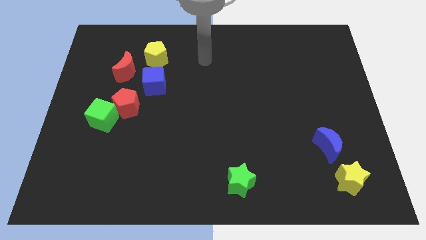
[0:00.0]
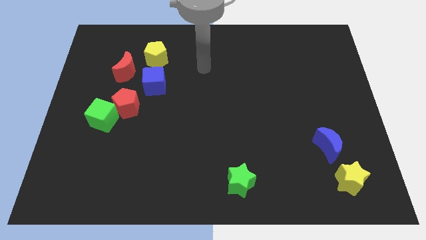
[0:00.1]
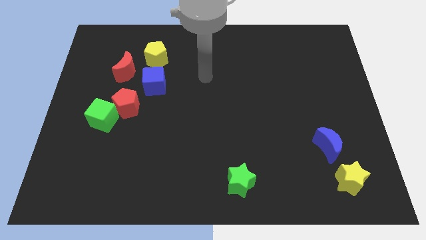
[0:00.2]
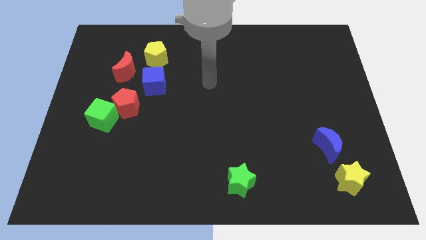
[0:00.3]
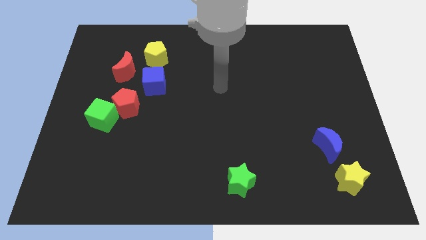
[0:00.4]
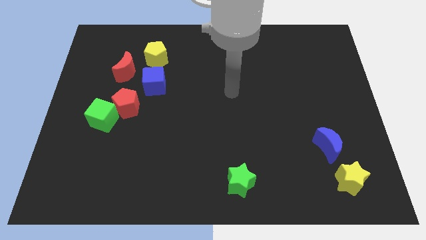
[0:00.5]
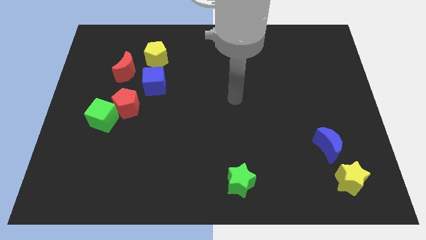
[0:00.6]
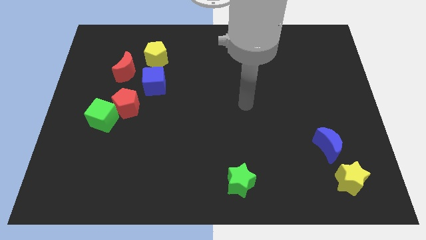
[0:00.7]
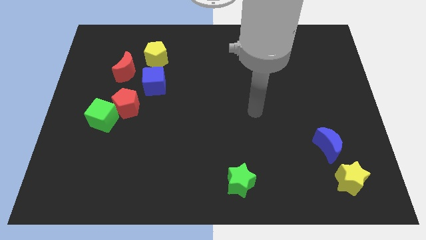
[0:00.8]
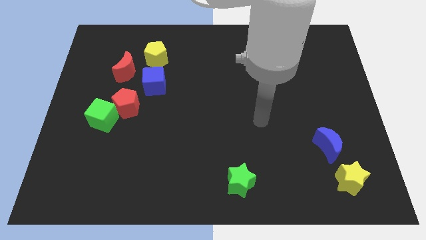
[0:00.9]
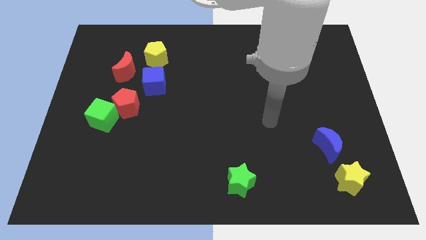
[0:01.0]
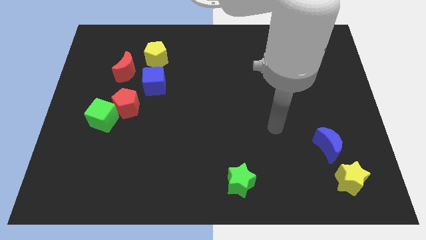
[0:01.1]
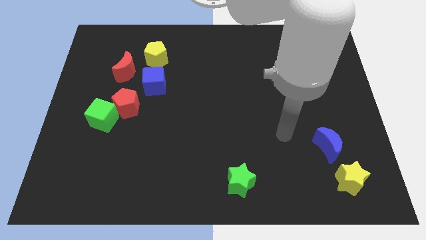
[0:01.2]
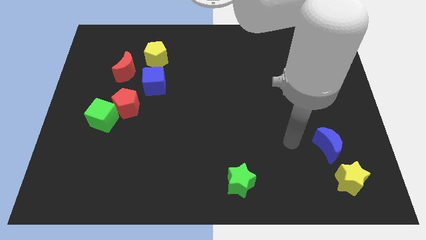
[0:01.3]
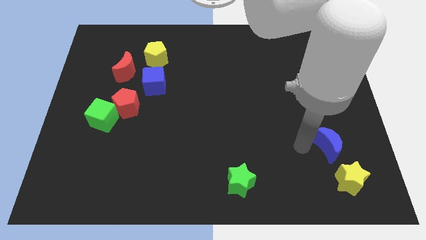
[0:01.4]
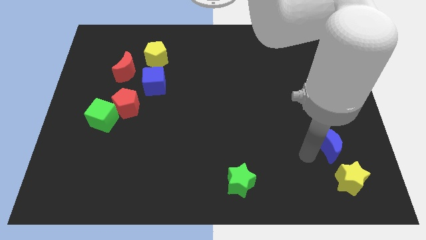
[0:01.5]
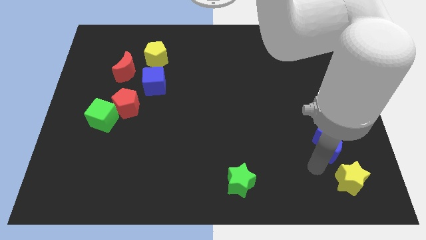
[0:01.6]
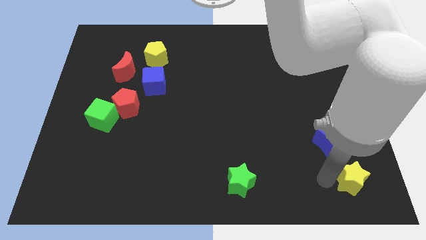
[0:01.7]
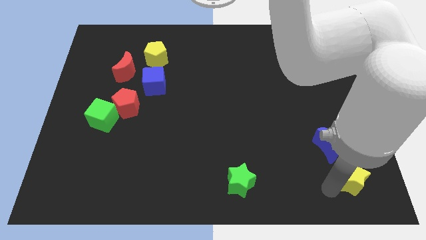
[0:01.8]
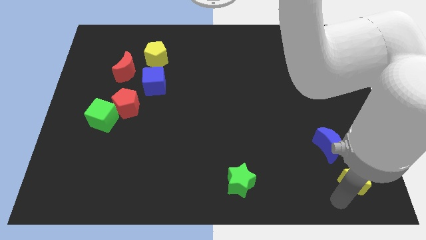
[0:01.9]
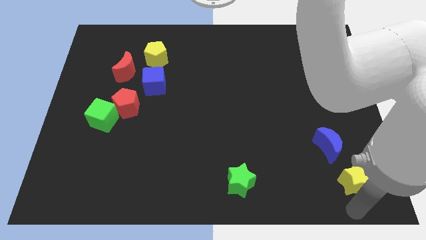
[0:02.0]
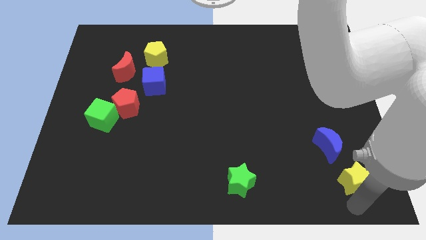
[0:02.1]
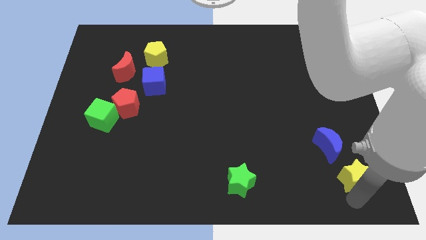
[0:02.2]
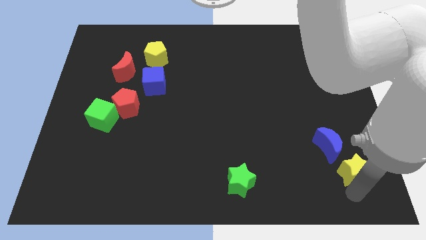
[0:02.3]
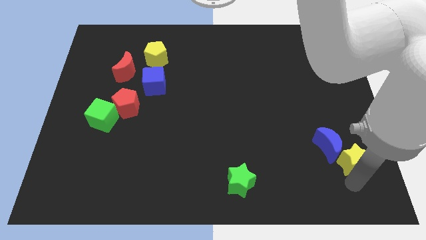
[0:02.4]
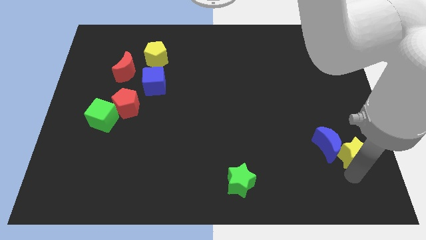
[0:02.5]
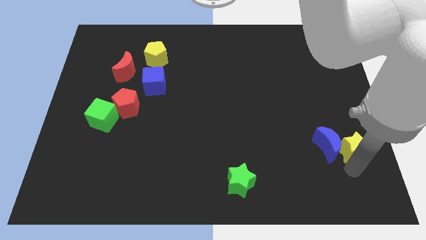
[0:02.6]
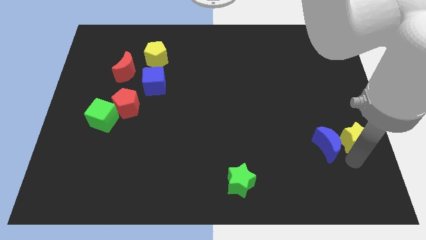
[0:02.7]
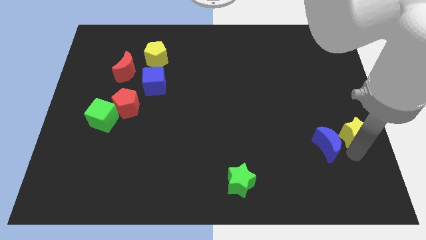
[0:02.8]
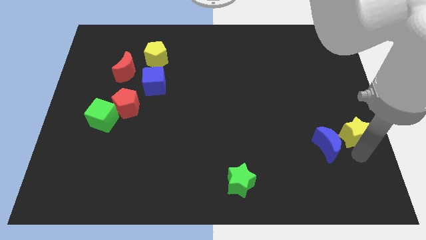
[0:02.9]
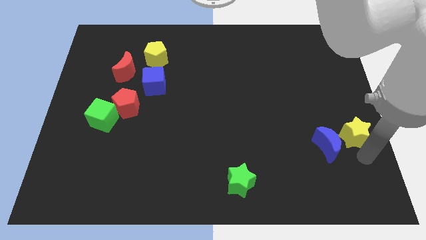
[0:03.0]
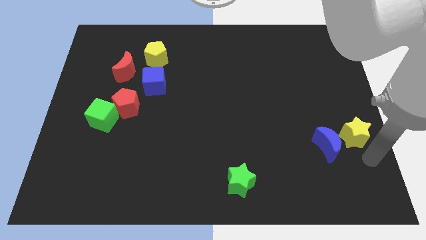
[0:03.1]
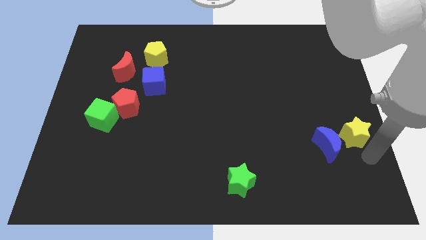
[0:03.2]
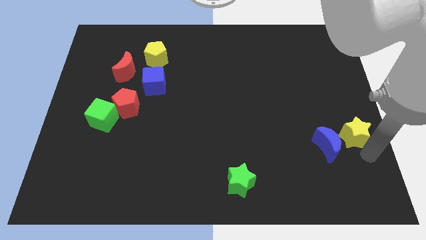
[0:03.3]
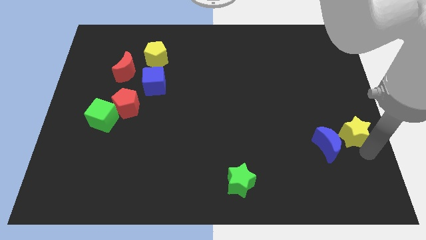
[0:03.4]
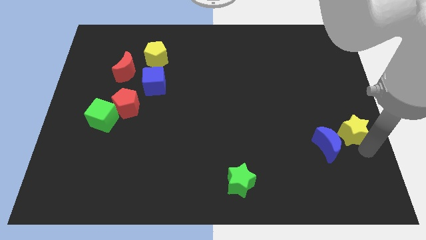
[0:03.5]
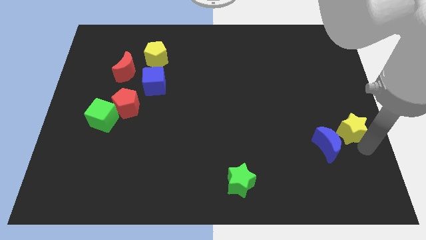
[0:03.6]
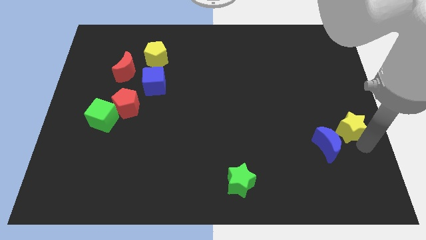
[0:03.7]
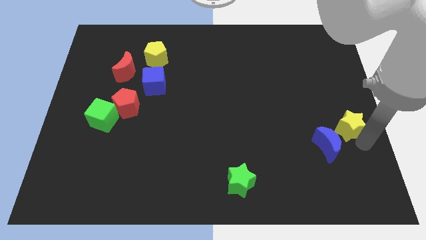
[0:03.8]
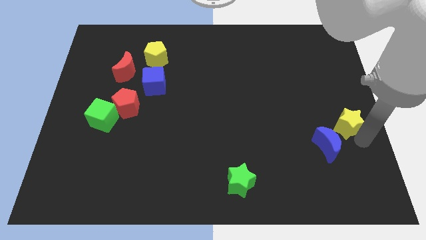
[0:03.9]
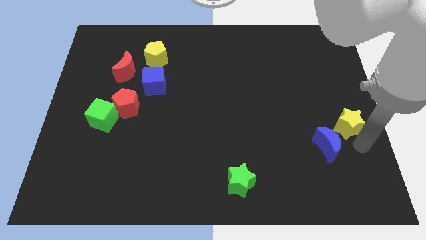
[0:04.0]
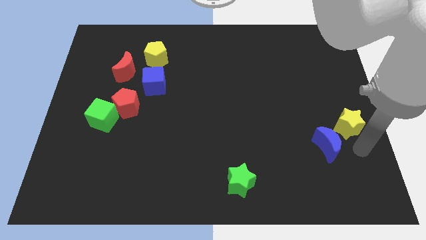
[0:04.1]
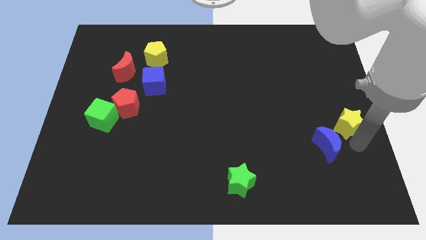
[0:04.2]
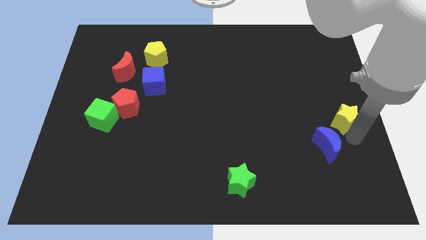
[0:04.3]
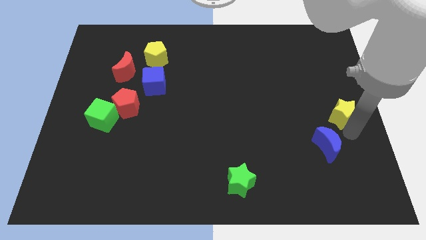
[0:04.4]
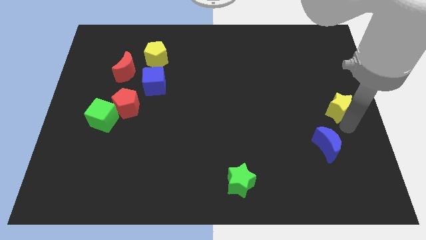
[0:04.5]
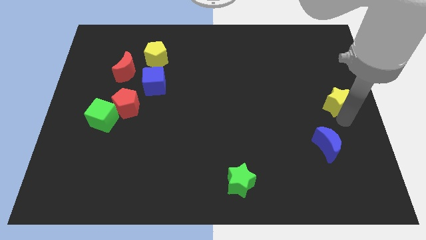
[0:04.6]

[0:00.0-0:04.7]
move the yellow star upwards

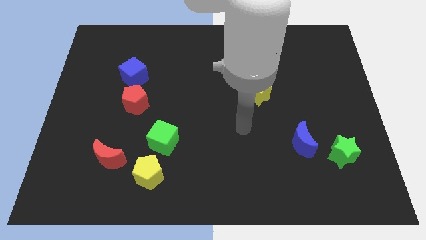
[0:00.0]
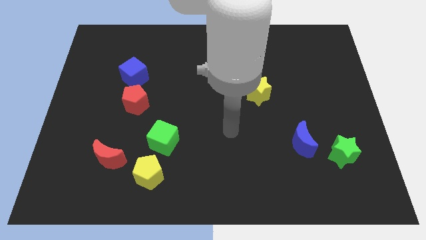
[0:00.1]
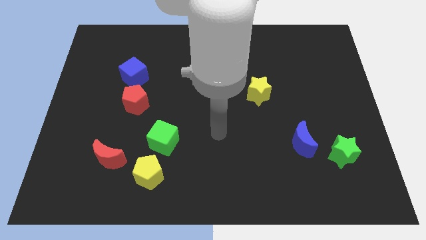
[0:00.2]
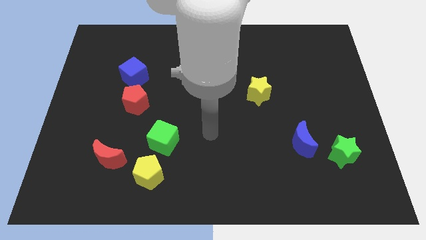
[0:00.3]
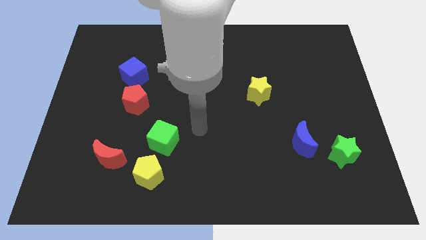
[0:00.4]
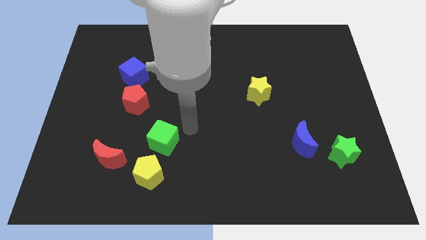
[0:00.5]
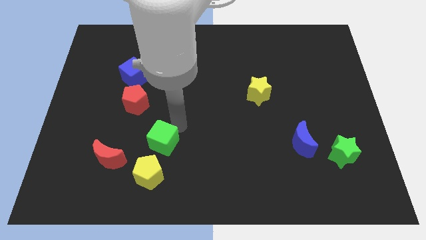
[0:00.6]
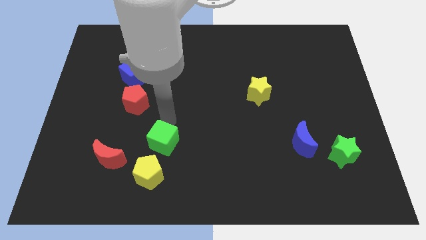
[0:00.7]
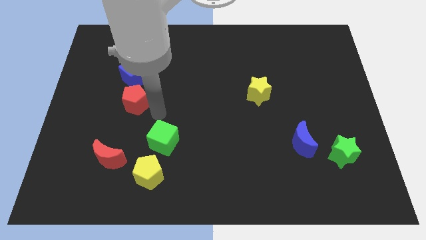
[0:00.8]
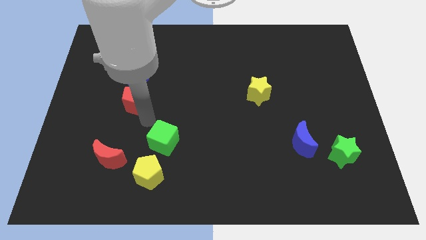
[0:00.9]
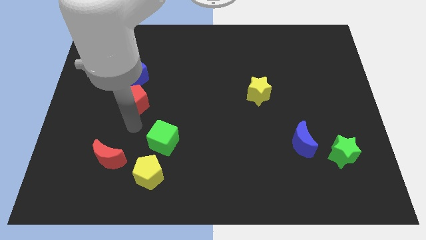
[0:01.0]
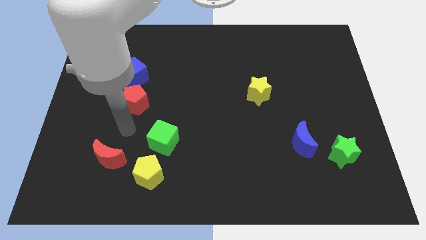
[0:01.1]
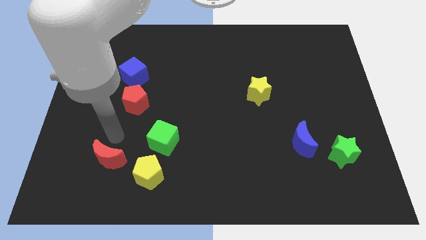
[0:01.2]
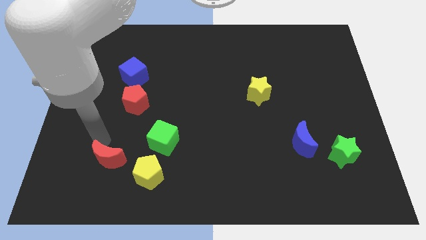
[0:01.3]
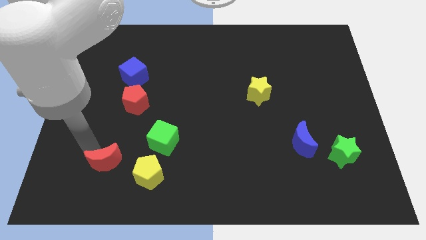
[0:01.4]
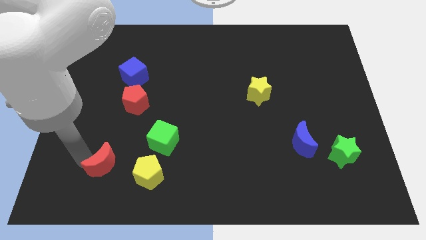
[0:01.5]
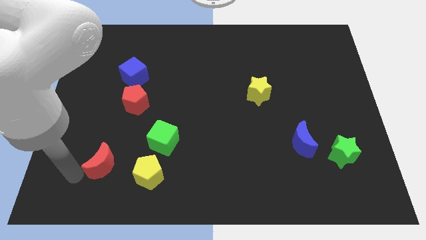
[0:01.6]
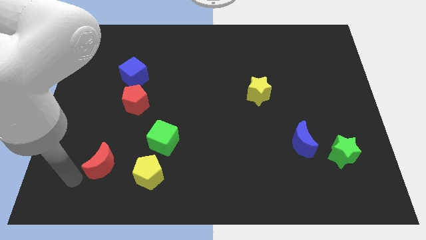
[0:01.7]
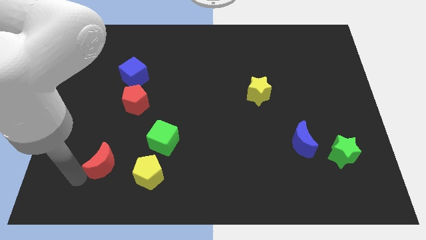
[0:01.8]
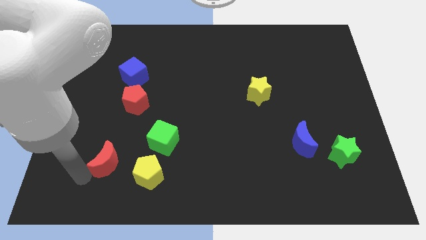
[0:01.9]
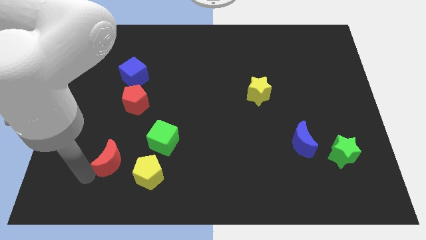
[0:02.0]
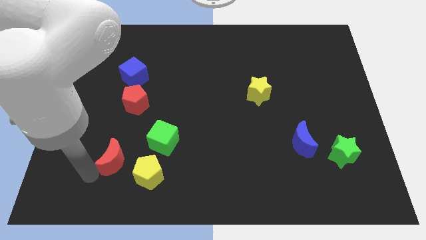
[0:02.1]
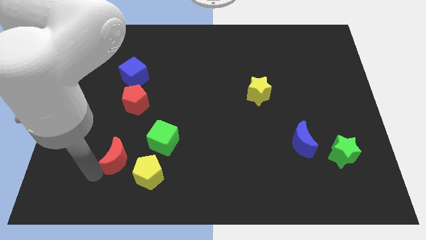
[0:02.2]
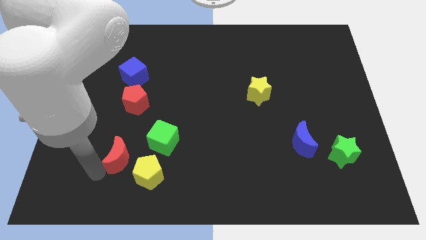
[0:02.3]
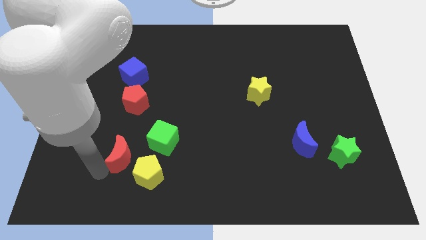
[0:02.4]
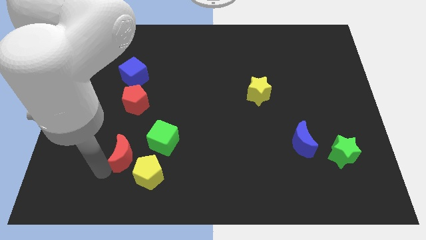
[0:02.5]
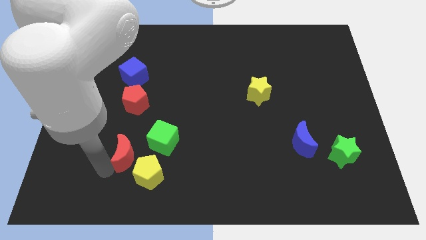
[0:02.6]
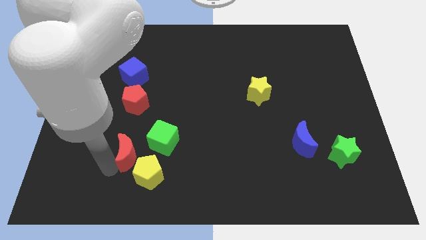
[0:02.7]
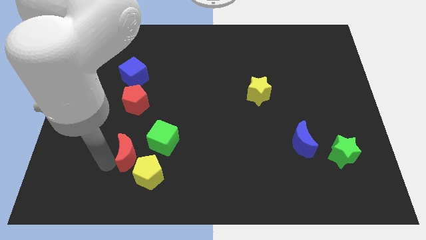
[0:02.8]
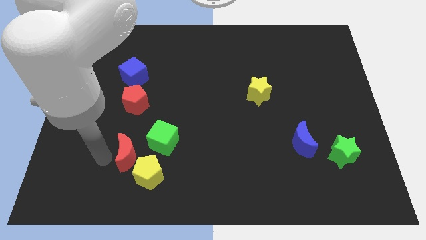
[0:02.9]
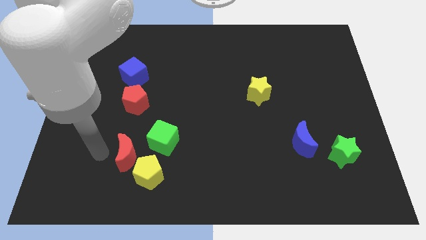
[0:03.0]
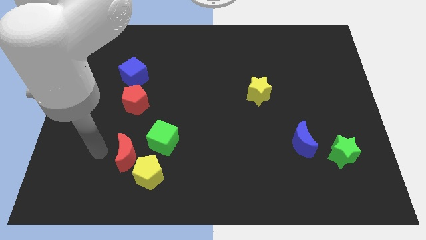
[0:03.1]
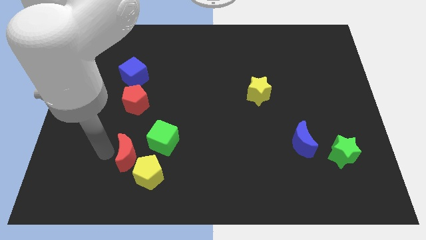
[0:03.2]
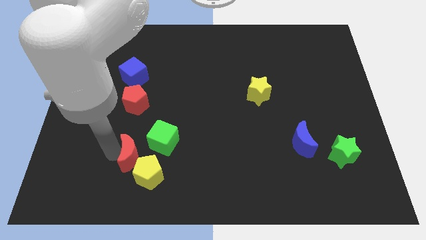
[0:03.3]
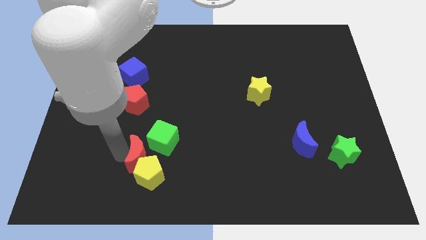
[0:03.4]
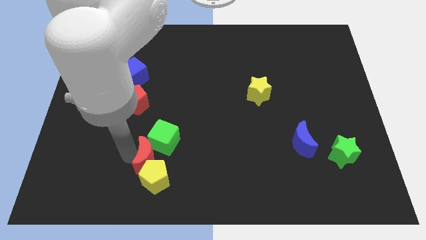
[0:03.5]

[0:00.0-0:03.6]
push the red moon a little bit to the right
